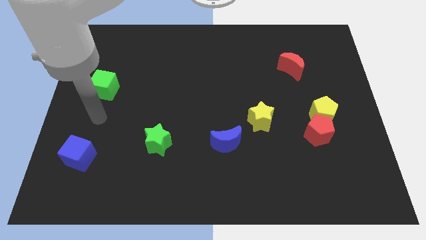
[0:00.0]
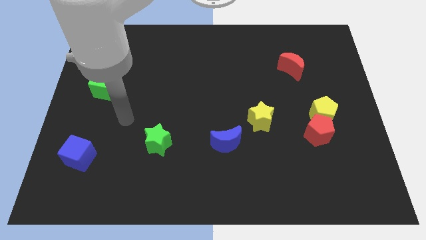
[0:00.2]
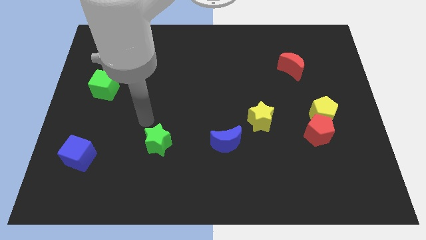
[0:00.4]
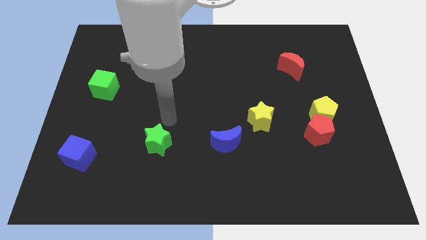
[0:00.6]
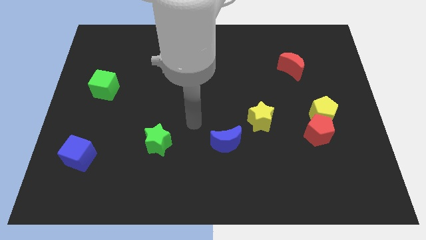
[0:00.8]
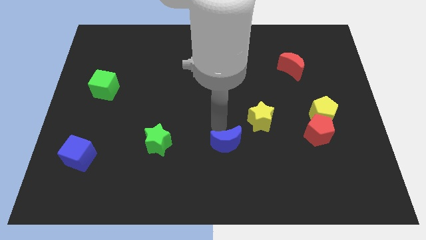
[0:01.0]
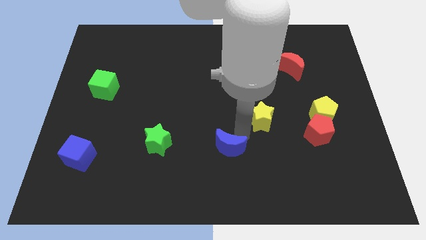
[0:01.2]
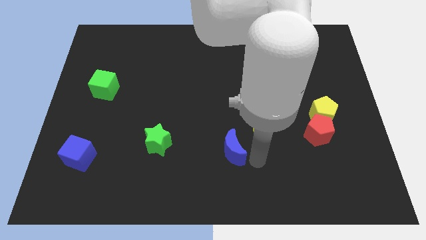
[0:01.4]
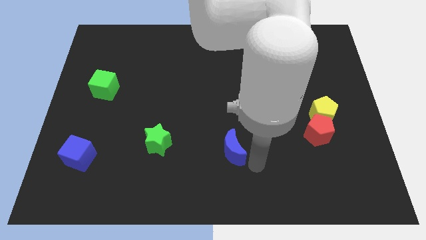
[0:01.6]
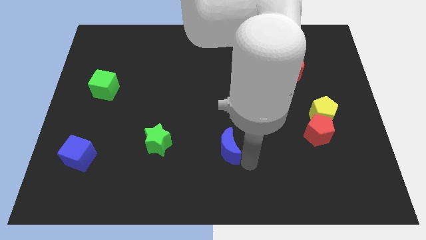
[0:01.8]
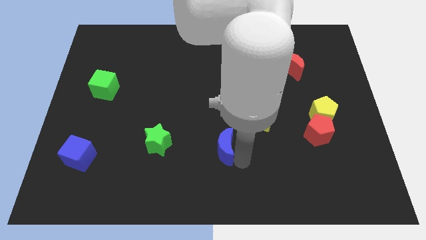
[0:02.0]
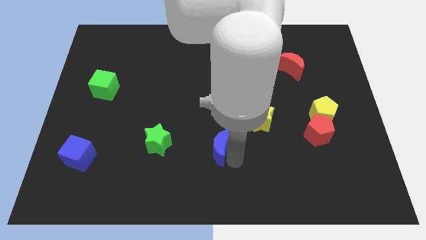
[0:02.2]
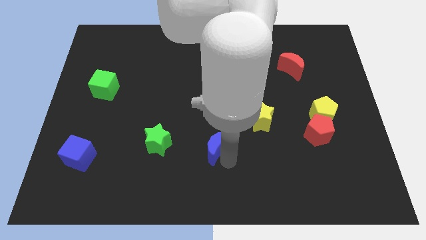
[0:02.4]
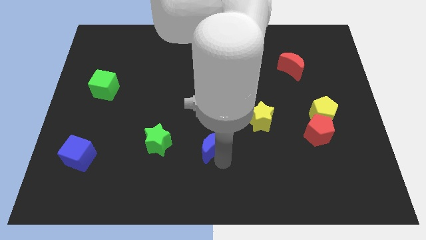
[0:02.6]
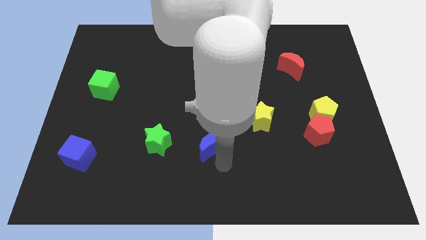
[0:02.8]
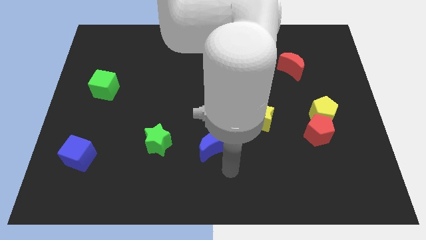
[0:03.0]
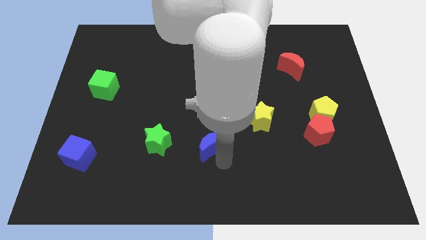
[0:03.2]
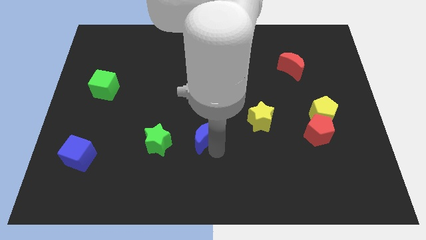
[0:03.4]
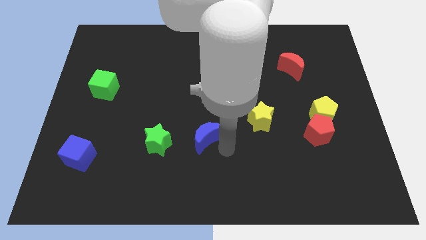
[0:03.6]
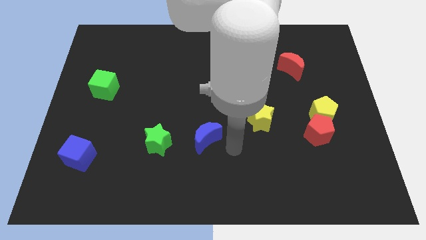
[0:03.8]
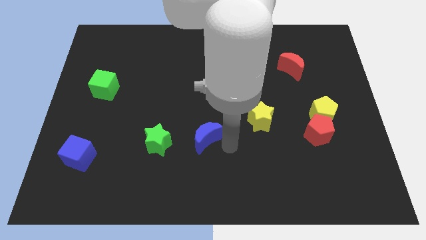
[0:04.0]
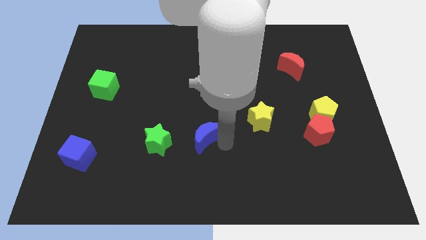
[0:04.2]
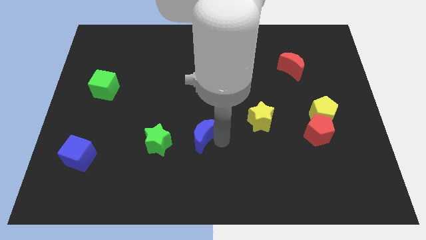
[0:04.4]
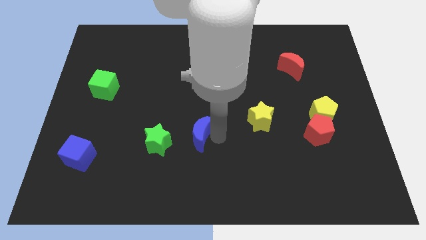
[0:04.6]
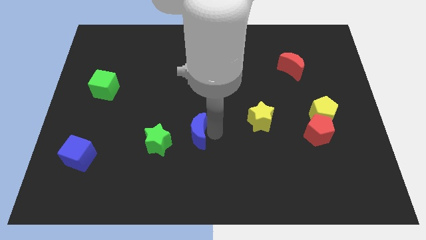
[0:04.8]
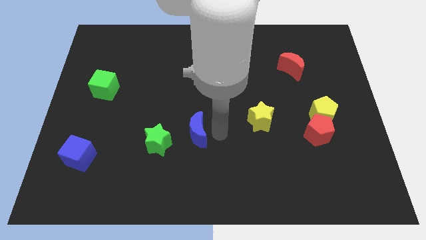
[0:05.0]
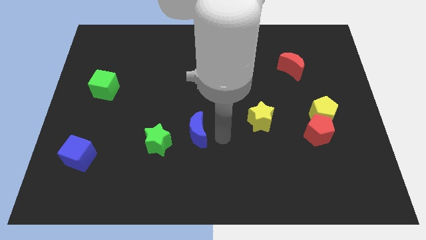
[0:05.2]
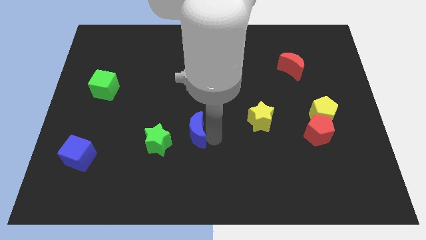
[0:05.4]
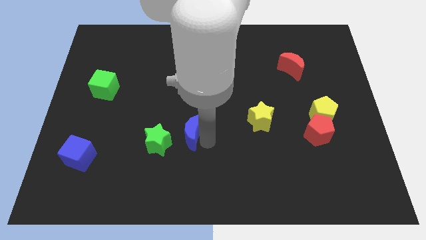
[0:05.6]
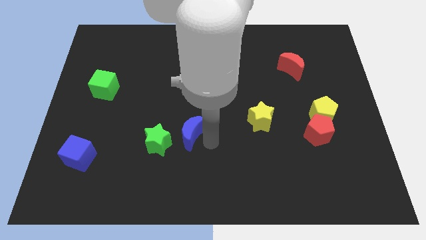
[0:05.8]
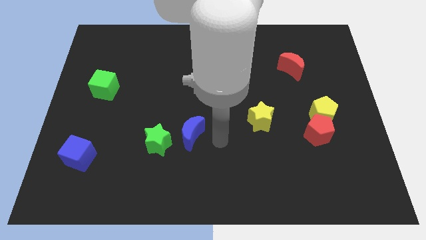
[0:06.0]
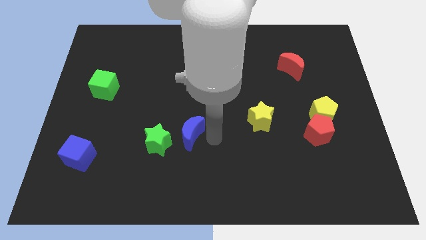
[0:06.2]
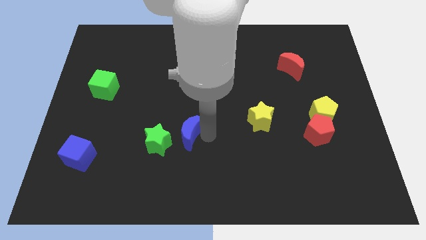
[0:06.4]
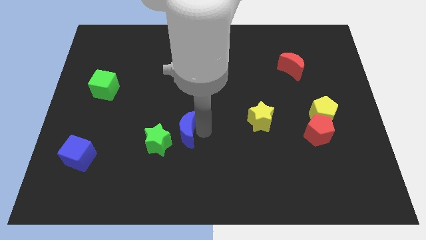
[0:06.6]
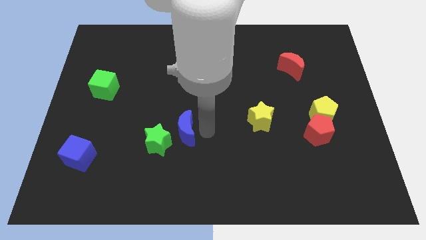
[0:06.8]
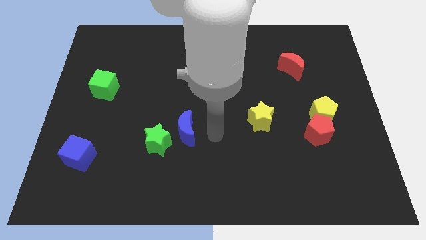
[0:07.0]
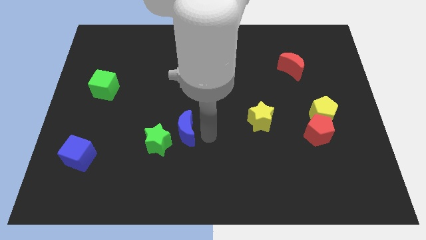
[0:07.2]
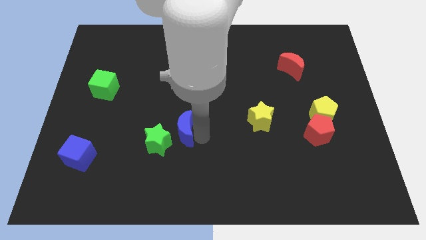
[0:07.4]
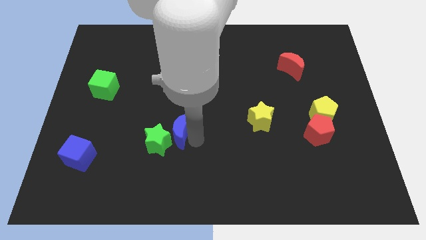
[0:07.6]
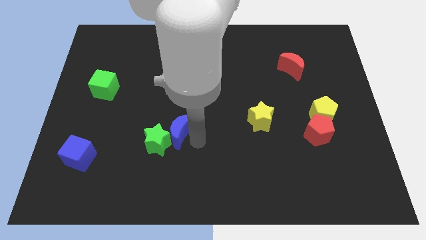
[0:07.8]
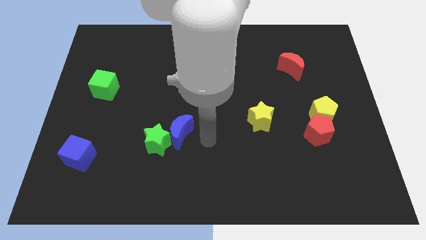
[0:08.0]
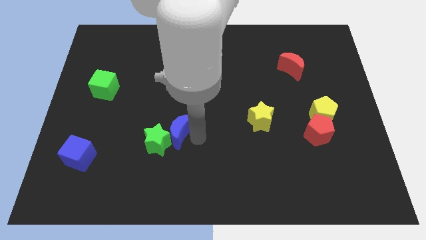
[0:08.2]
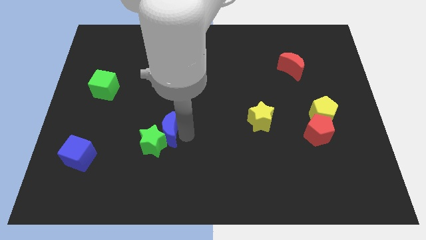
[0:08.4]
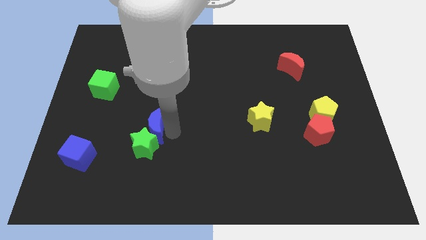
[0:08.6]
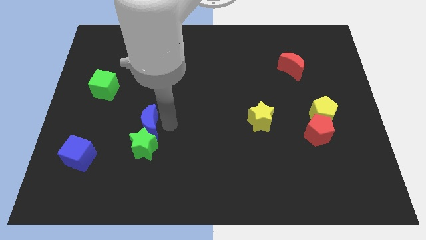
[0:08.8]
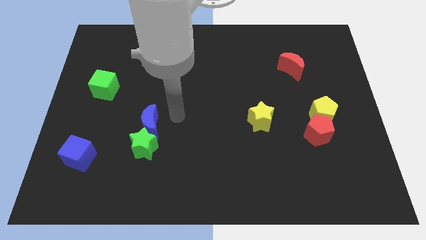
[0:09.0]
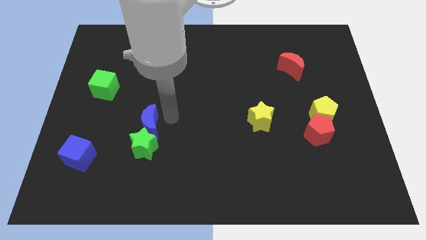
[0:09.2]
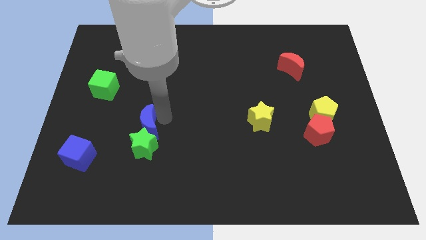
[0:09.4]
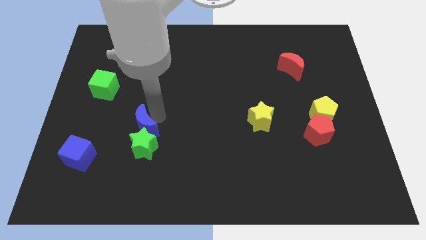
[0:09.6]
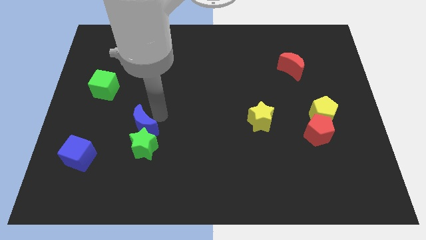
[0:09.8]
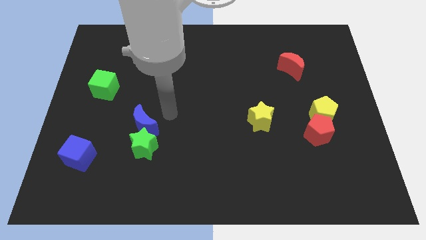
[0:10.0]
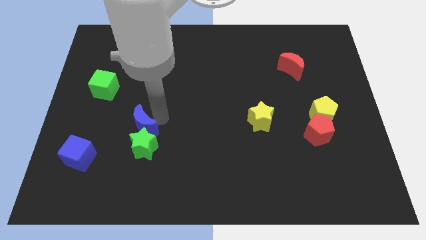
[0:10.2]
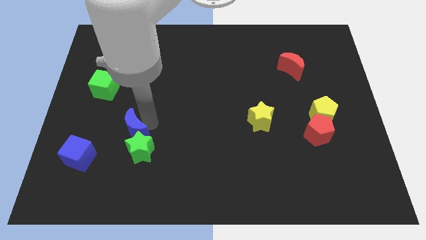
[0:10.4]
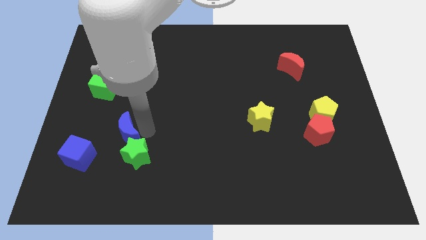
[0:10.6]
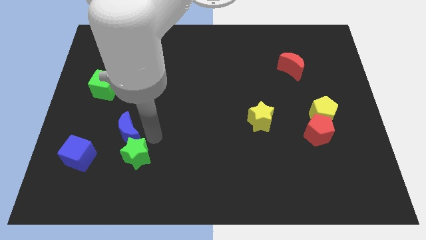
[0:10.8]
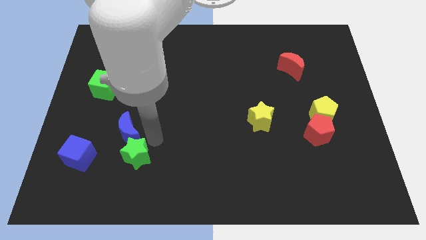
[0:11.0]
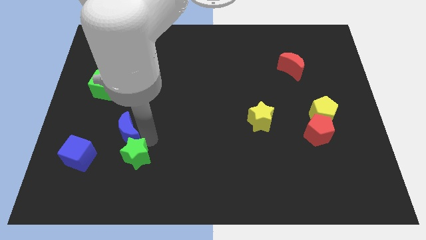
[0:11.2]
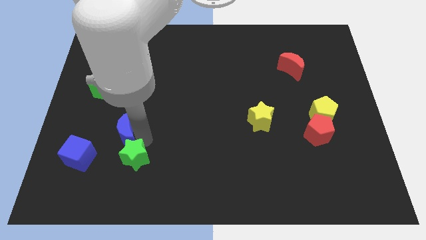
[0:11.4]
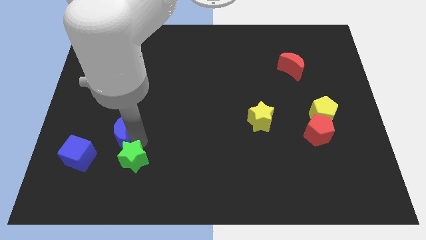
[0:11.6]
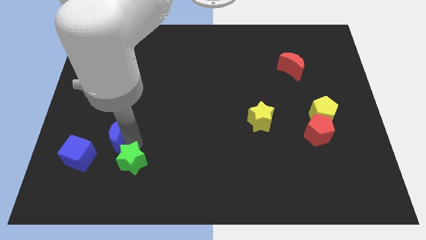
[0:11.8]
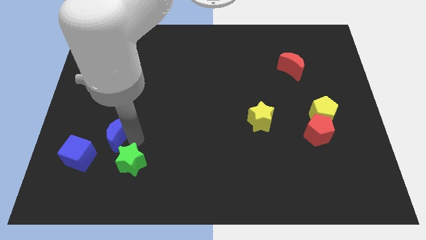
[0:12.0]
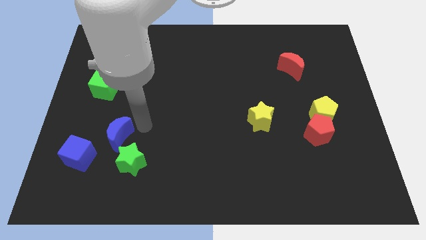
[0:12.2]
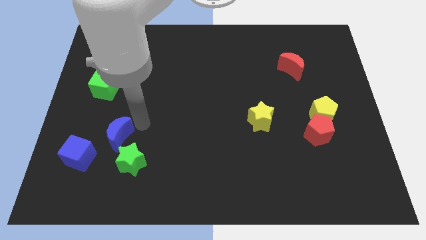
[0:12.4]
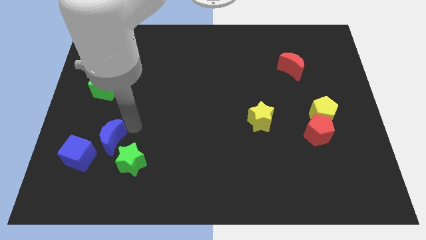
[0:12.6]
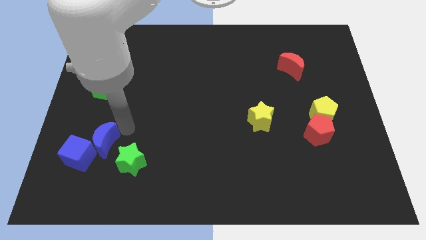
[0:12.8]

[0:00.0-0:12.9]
put the blue moon close to the blue cube

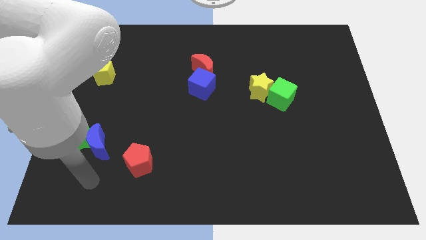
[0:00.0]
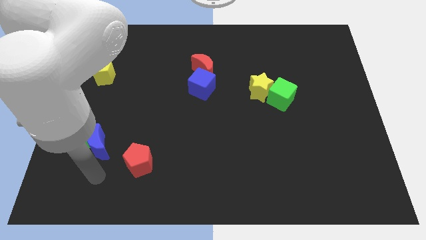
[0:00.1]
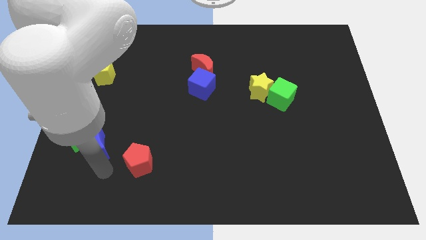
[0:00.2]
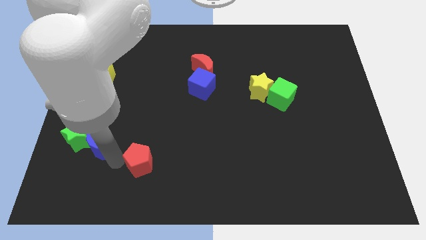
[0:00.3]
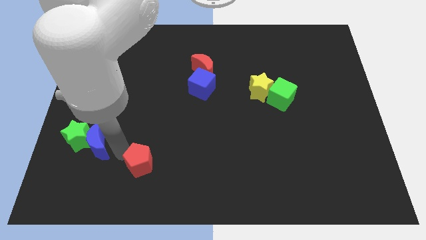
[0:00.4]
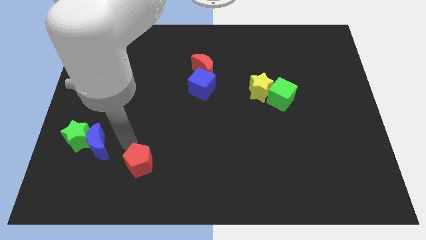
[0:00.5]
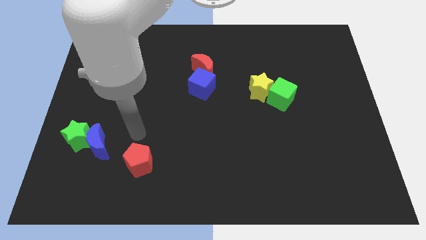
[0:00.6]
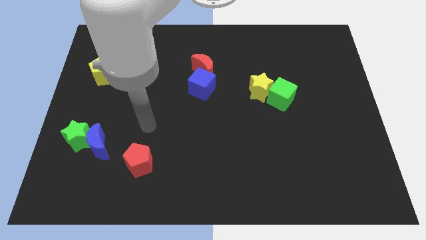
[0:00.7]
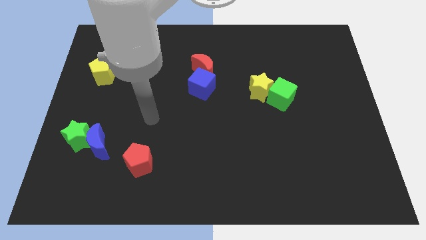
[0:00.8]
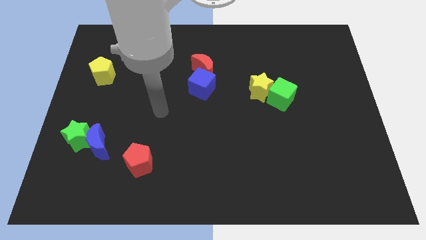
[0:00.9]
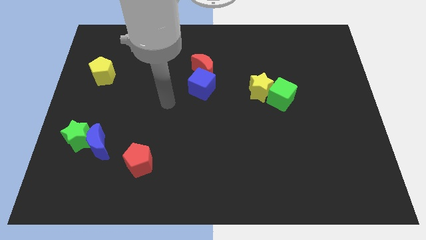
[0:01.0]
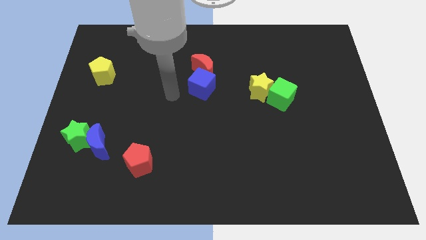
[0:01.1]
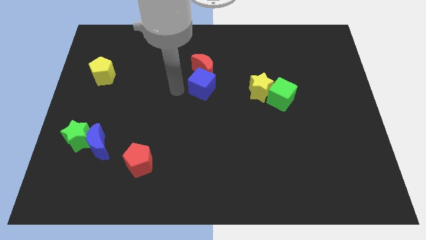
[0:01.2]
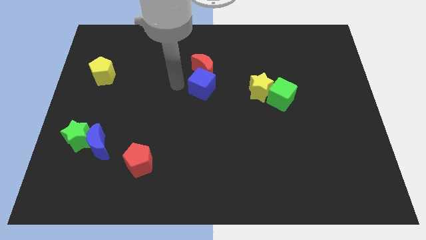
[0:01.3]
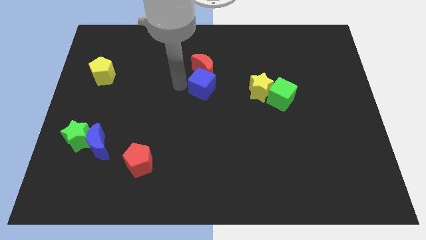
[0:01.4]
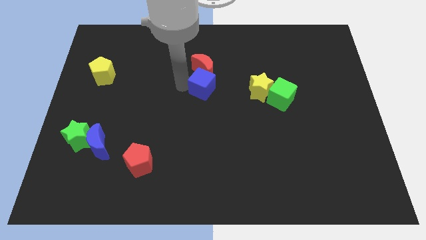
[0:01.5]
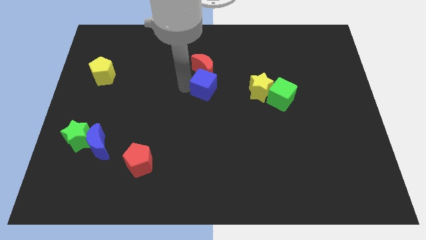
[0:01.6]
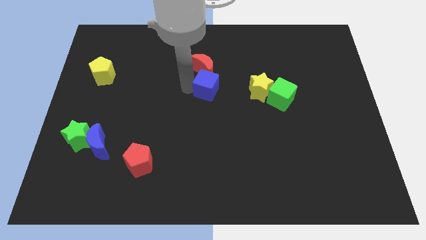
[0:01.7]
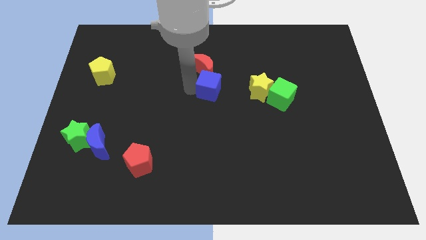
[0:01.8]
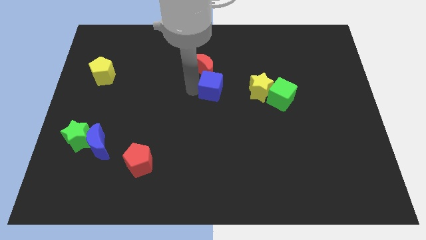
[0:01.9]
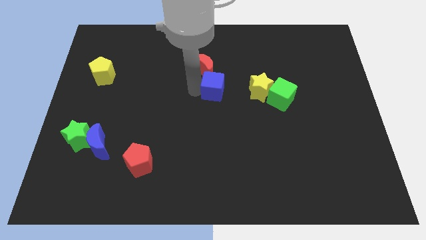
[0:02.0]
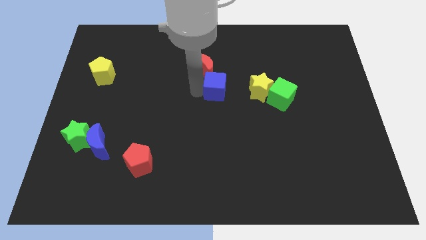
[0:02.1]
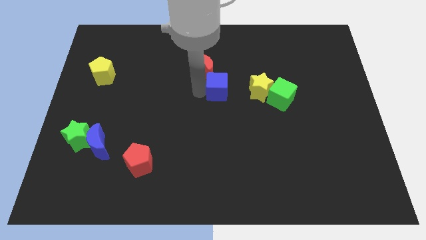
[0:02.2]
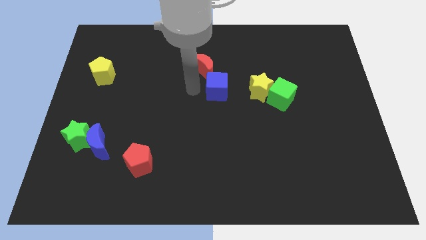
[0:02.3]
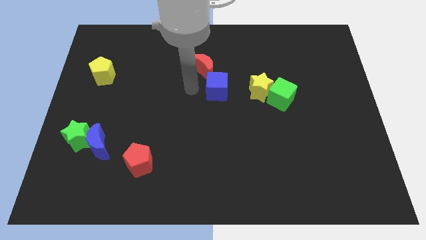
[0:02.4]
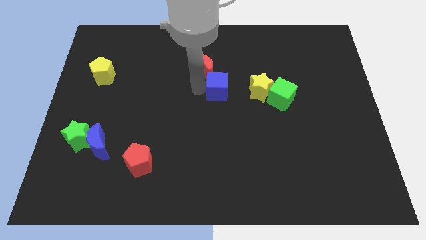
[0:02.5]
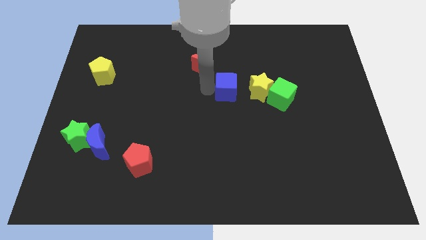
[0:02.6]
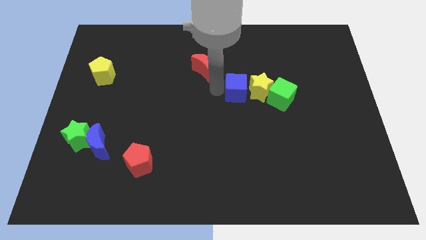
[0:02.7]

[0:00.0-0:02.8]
slide the blue cube to the yellow star
